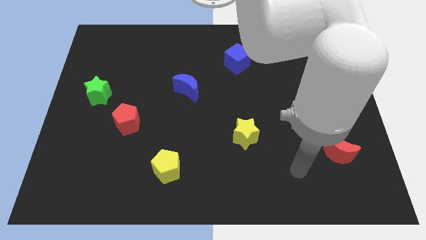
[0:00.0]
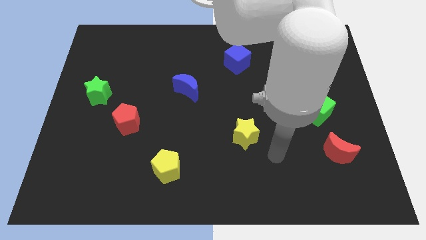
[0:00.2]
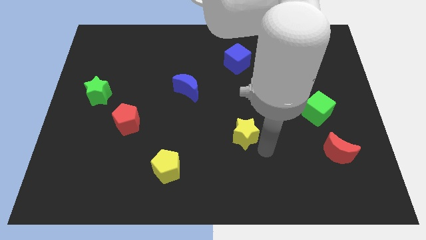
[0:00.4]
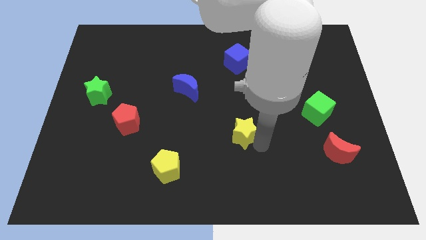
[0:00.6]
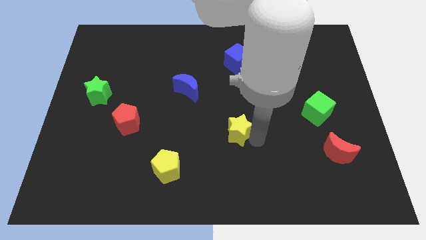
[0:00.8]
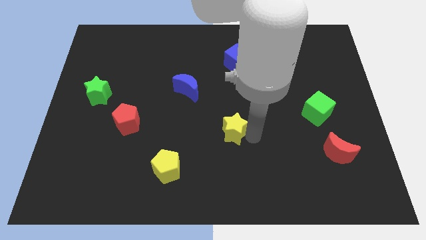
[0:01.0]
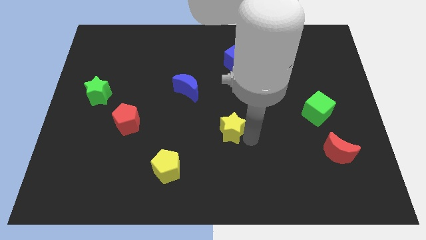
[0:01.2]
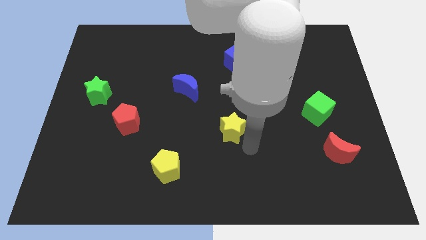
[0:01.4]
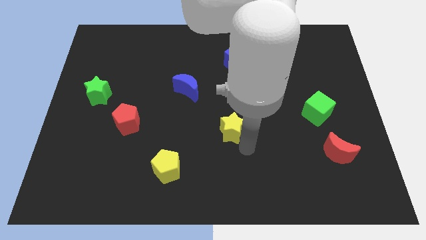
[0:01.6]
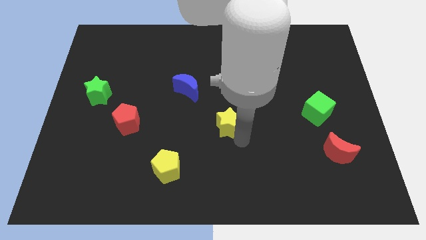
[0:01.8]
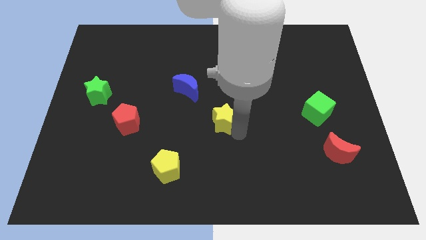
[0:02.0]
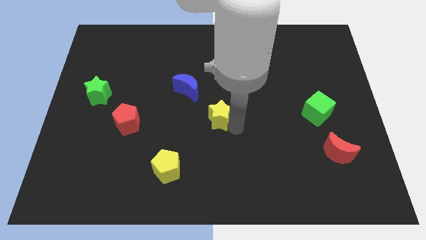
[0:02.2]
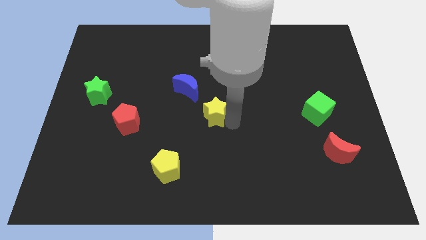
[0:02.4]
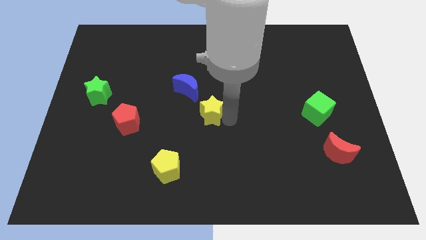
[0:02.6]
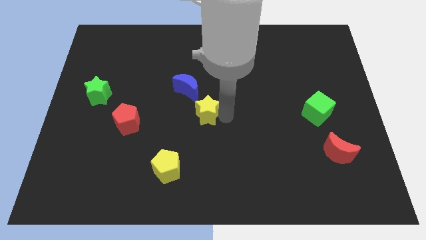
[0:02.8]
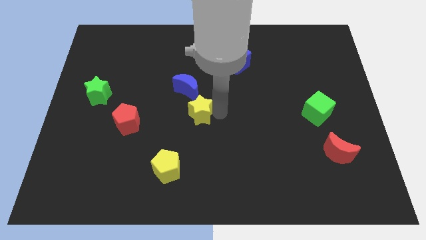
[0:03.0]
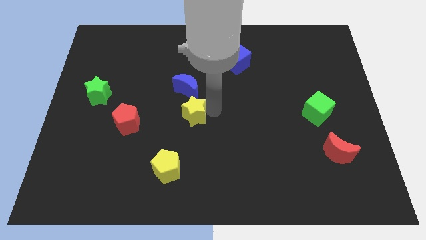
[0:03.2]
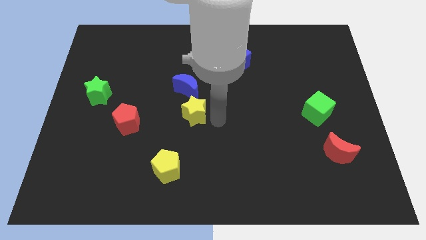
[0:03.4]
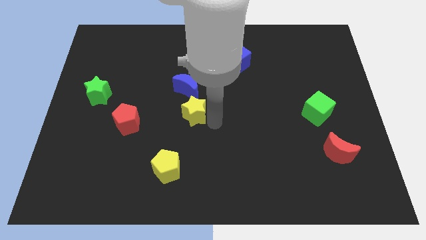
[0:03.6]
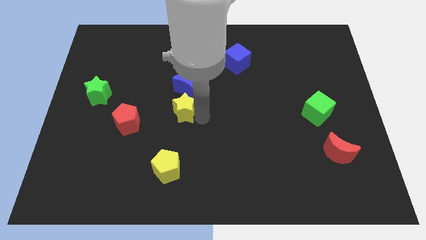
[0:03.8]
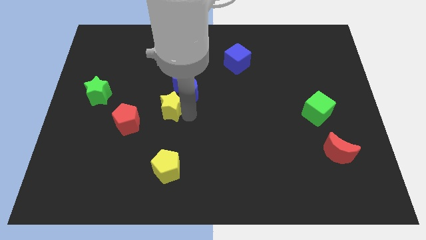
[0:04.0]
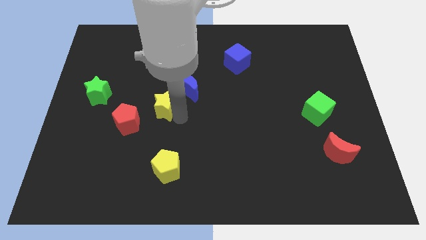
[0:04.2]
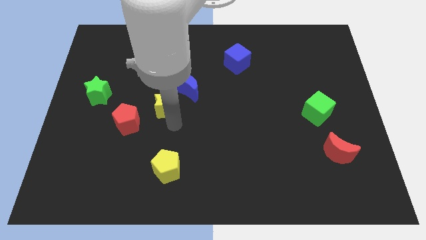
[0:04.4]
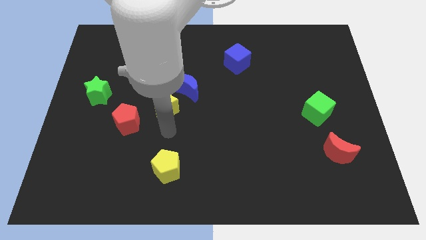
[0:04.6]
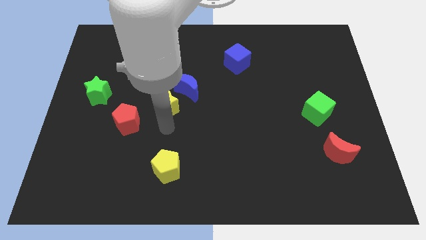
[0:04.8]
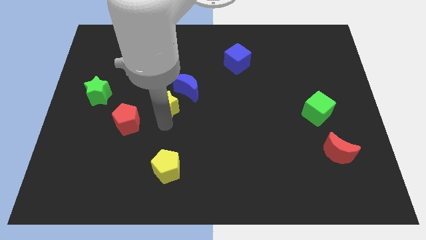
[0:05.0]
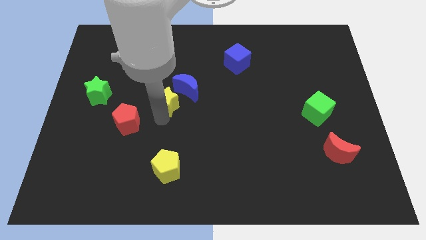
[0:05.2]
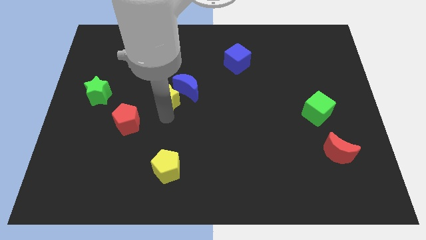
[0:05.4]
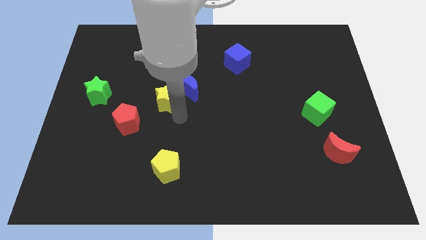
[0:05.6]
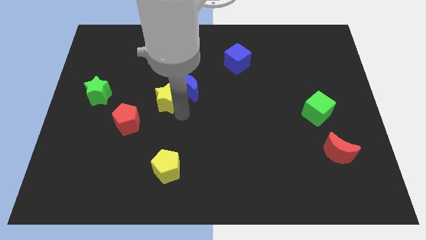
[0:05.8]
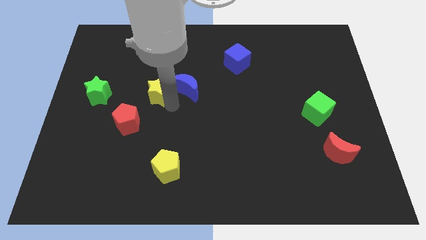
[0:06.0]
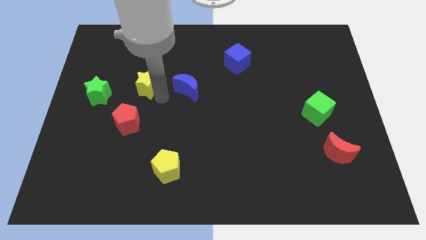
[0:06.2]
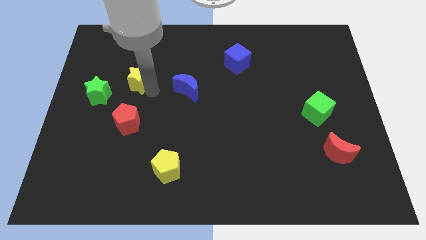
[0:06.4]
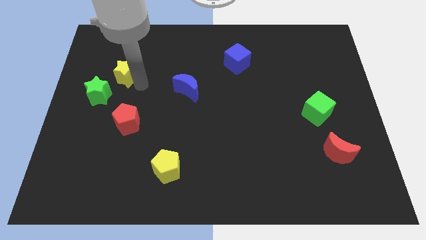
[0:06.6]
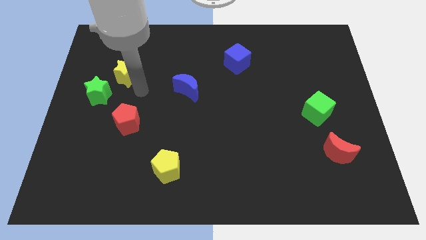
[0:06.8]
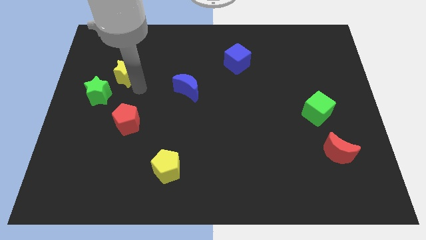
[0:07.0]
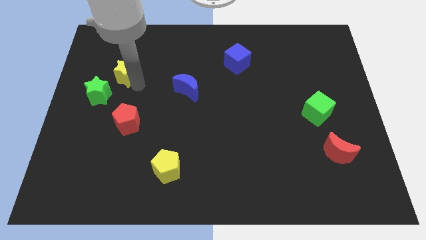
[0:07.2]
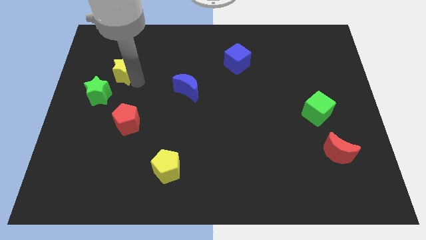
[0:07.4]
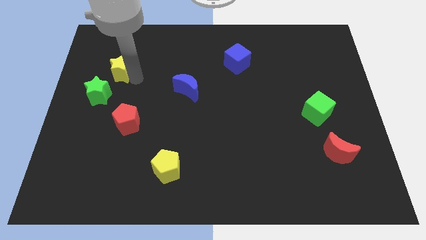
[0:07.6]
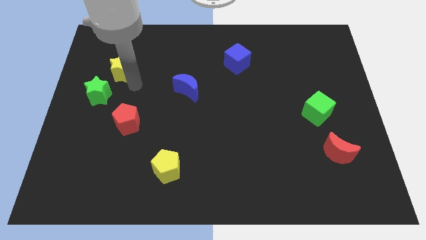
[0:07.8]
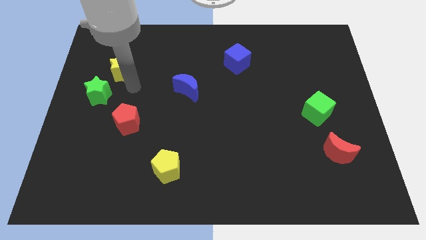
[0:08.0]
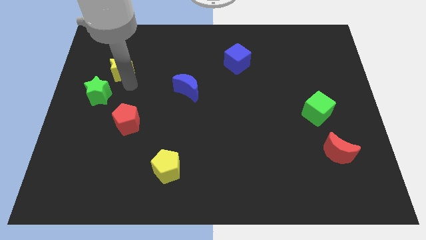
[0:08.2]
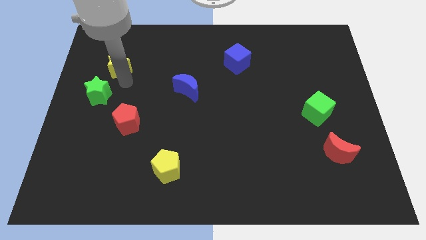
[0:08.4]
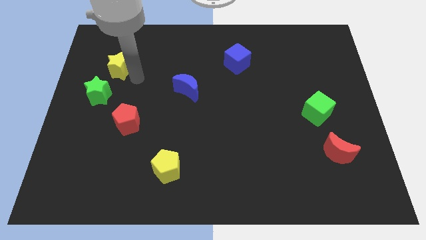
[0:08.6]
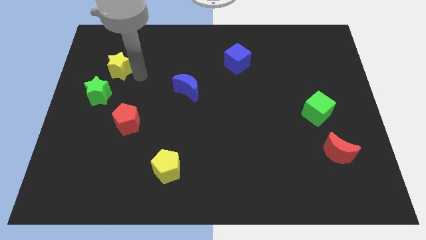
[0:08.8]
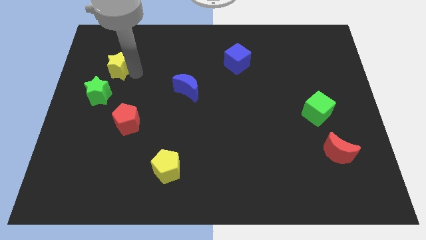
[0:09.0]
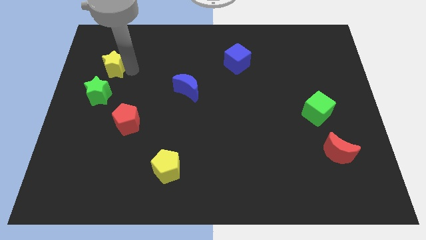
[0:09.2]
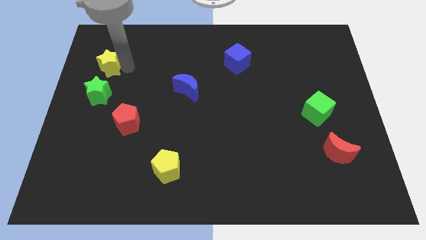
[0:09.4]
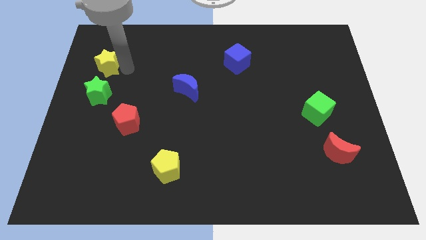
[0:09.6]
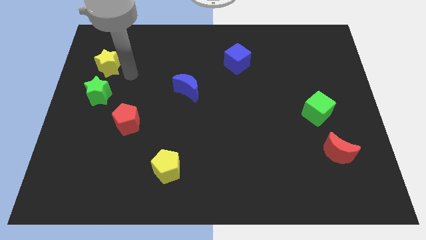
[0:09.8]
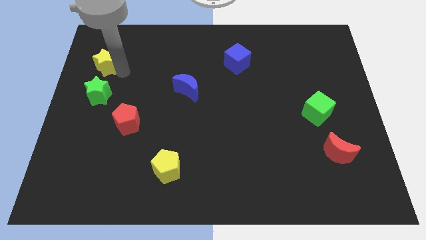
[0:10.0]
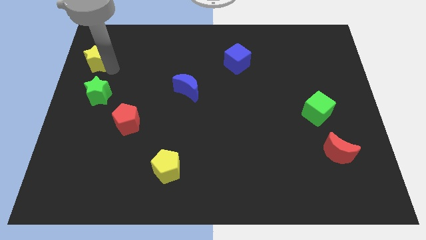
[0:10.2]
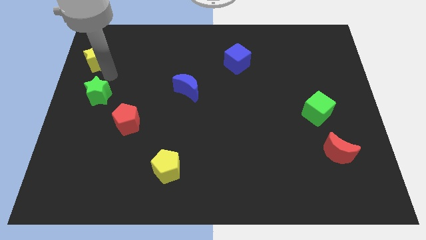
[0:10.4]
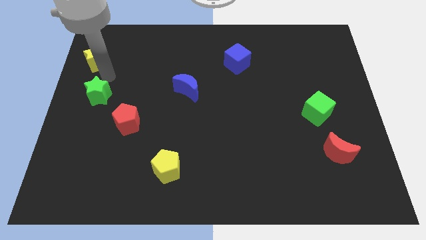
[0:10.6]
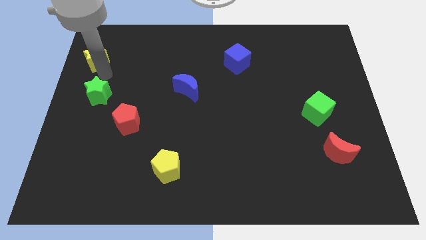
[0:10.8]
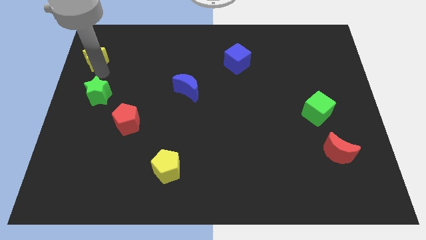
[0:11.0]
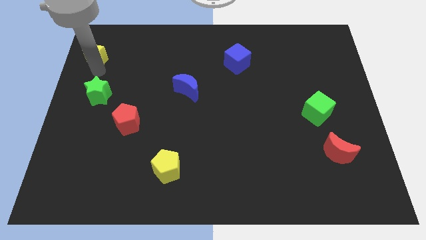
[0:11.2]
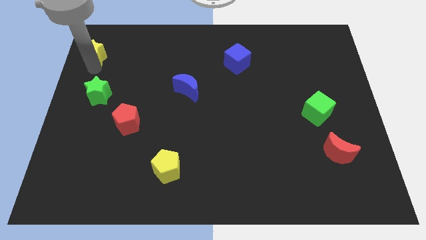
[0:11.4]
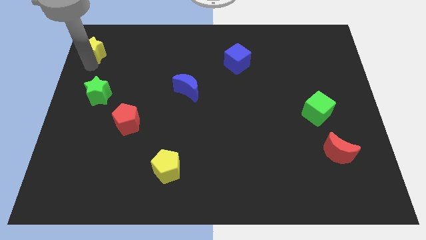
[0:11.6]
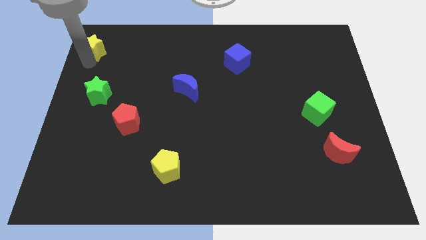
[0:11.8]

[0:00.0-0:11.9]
slide the yellow star to the top left
